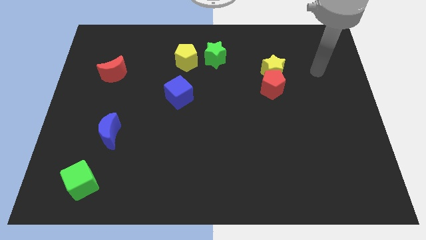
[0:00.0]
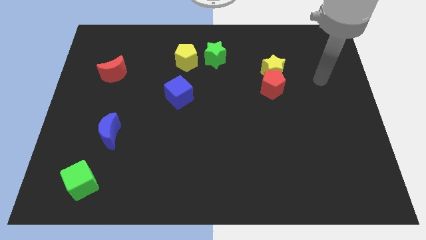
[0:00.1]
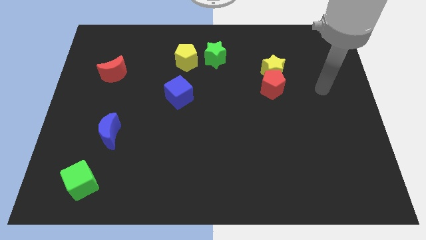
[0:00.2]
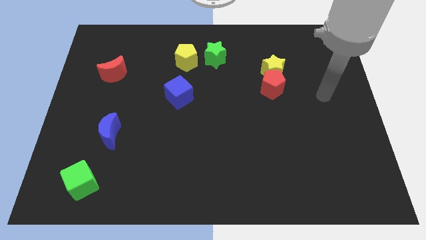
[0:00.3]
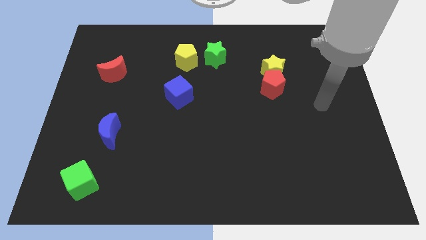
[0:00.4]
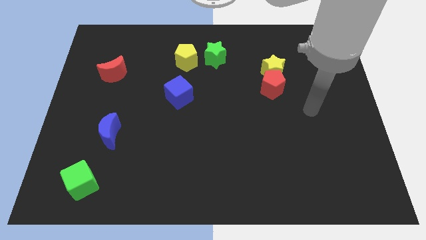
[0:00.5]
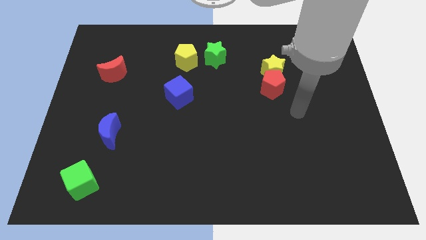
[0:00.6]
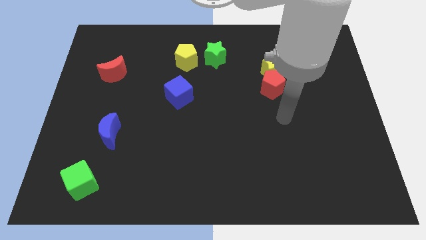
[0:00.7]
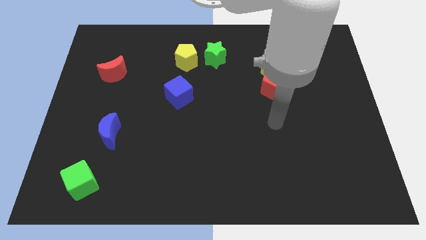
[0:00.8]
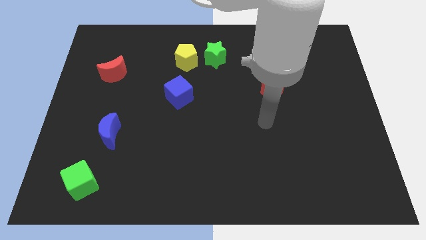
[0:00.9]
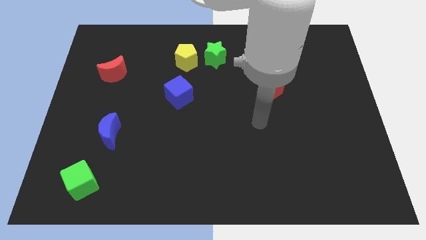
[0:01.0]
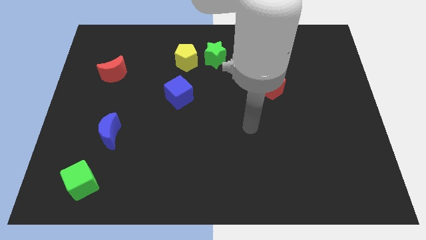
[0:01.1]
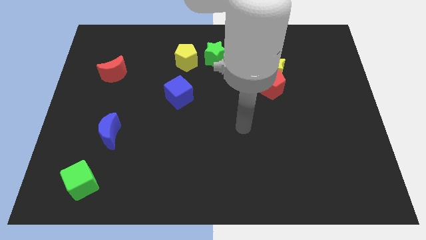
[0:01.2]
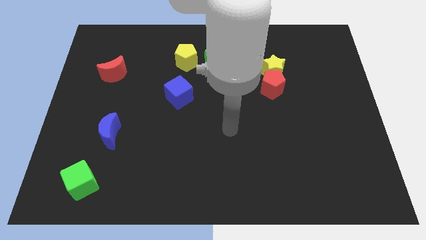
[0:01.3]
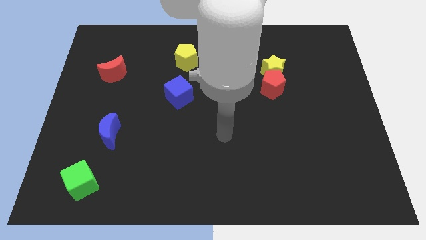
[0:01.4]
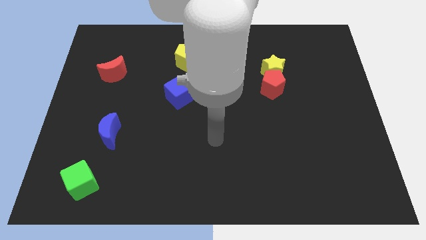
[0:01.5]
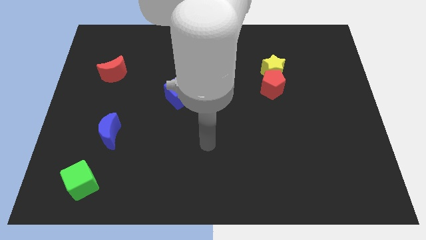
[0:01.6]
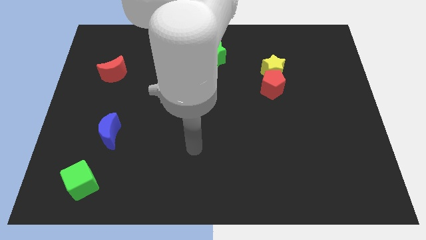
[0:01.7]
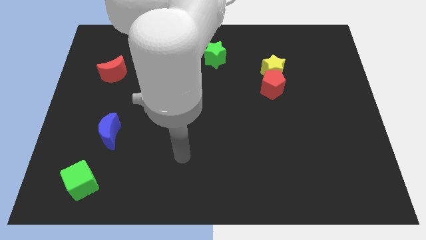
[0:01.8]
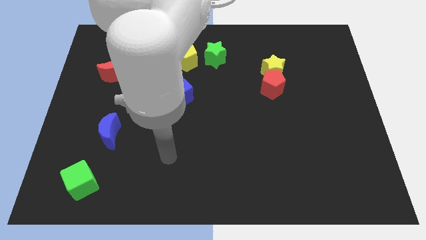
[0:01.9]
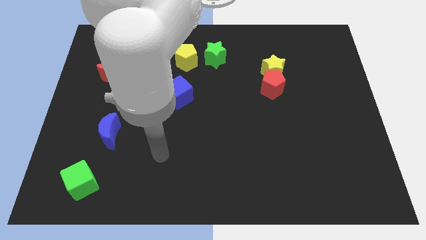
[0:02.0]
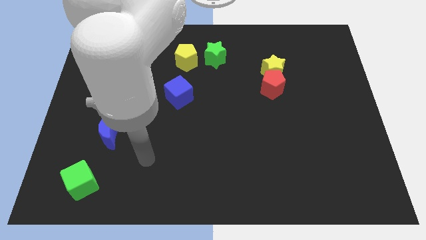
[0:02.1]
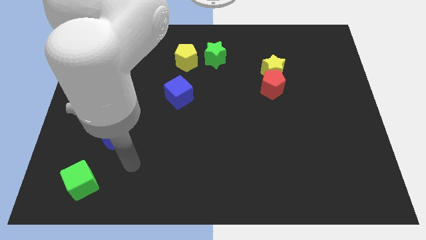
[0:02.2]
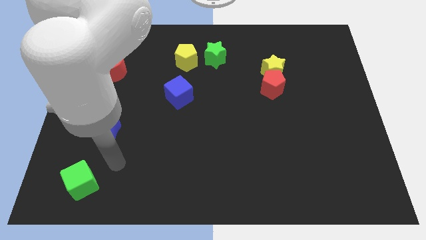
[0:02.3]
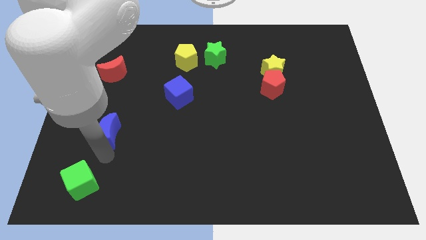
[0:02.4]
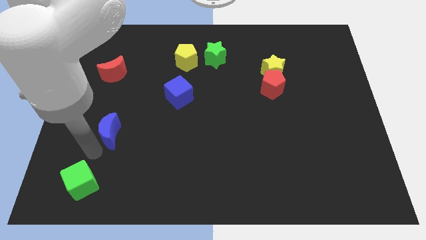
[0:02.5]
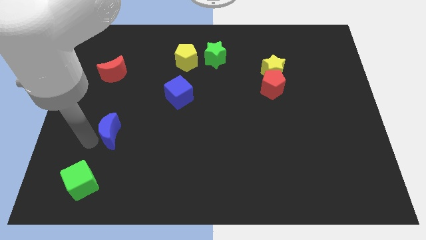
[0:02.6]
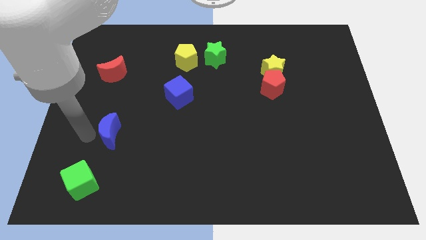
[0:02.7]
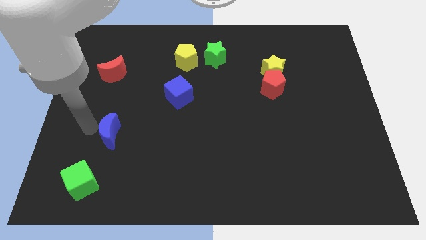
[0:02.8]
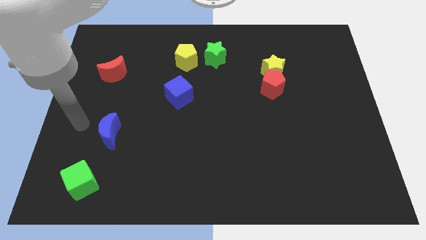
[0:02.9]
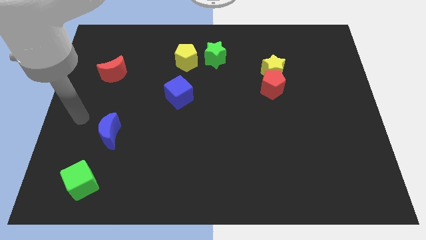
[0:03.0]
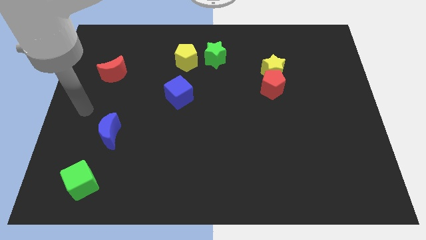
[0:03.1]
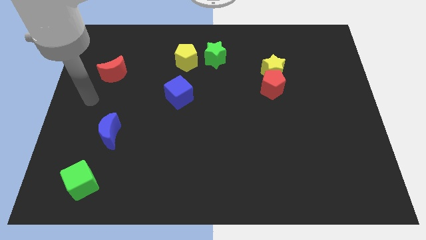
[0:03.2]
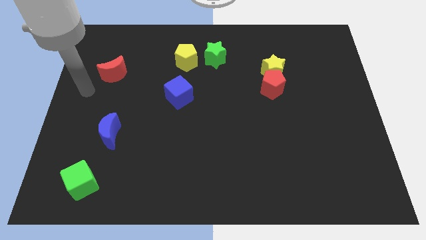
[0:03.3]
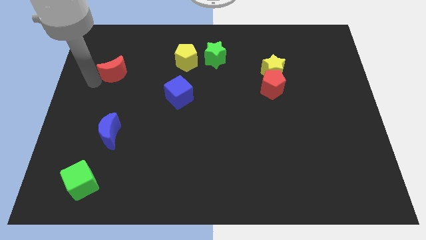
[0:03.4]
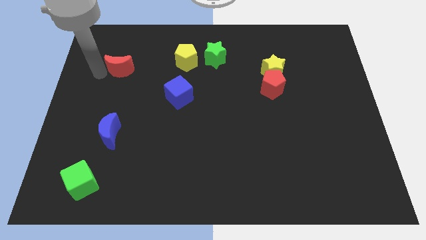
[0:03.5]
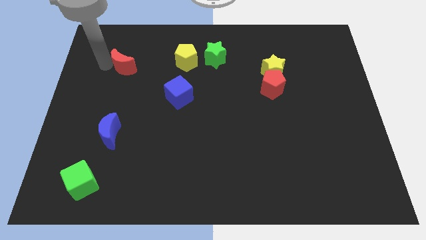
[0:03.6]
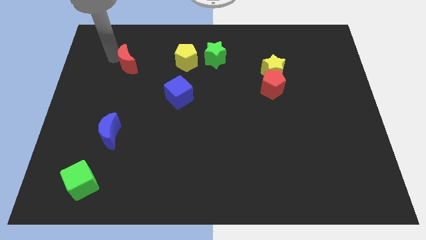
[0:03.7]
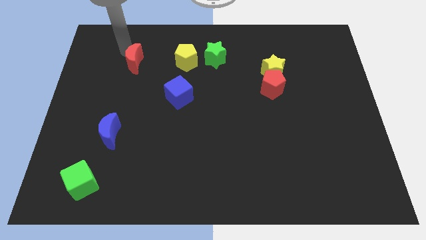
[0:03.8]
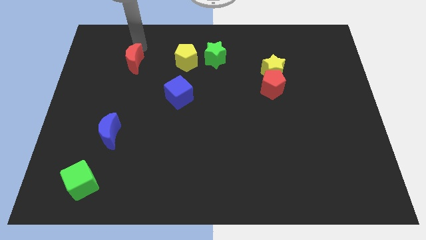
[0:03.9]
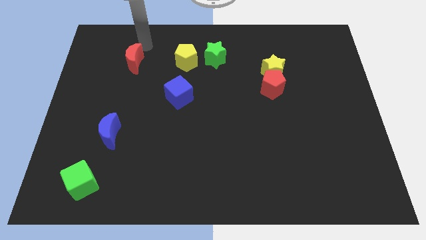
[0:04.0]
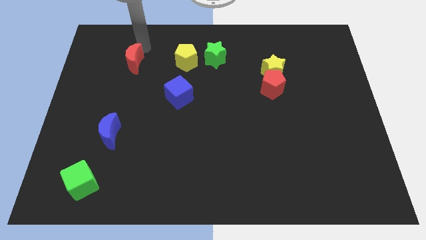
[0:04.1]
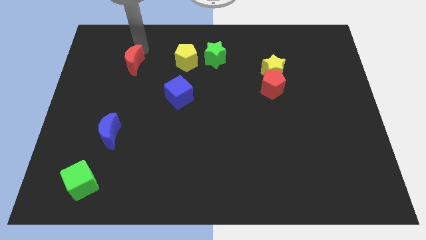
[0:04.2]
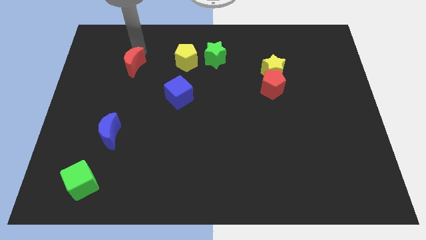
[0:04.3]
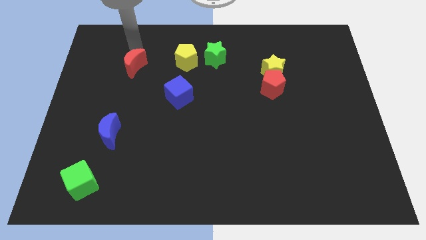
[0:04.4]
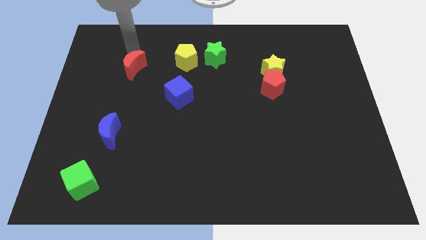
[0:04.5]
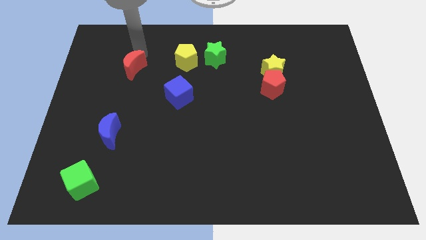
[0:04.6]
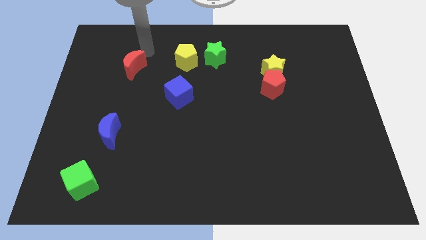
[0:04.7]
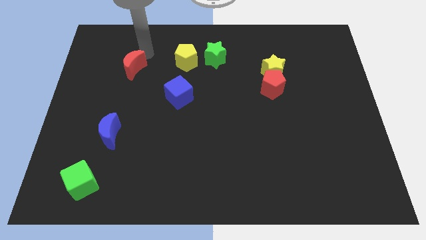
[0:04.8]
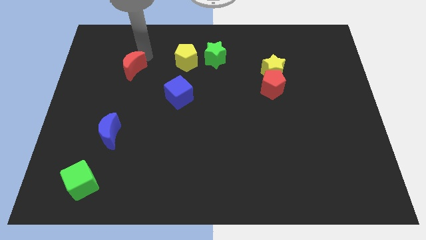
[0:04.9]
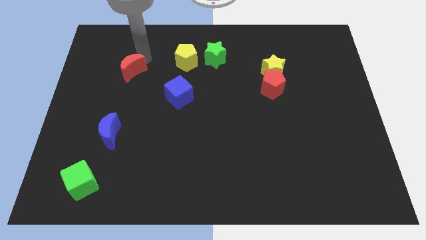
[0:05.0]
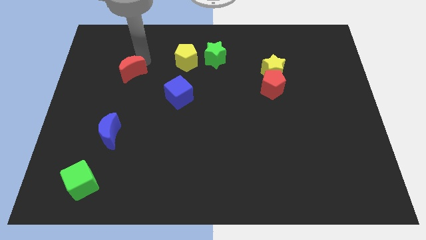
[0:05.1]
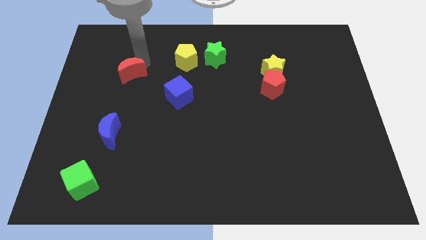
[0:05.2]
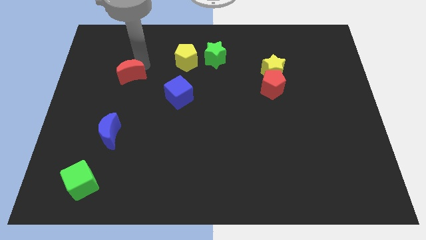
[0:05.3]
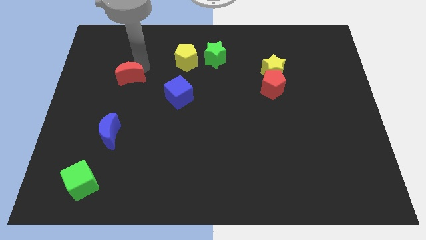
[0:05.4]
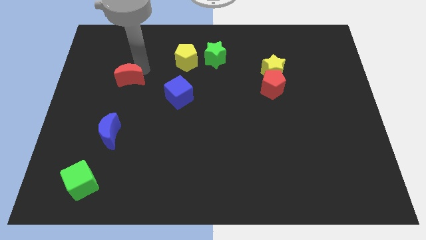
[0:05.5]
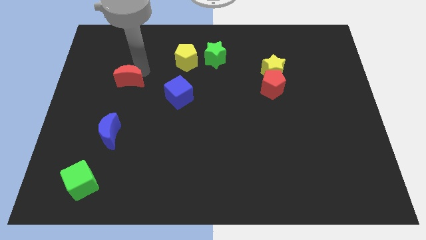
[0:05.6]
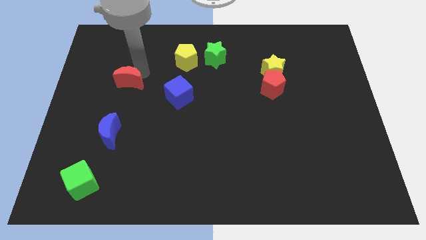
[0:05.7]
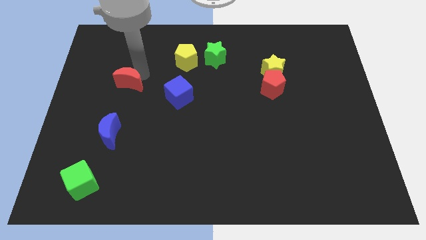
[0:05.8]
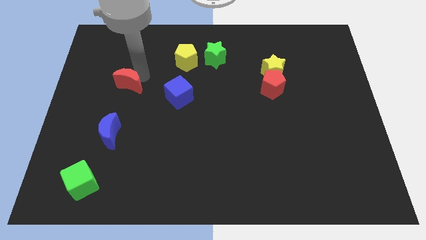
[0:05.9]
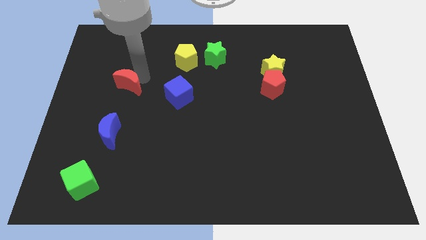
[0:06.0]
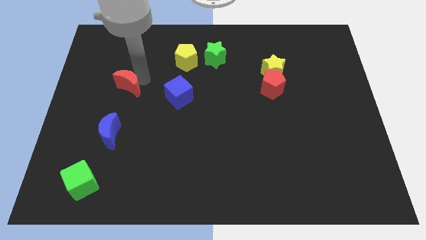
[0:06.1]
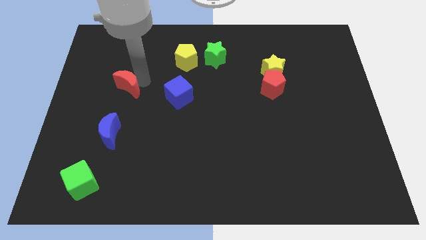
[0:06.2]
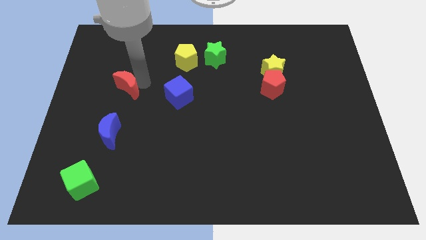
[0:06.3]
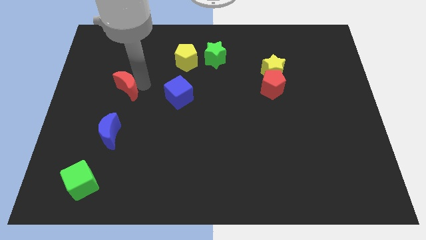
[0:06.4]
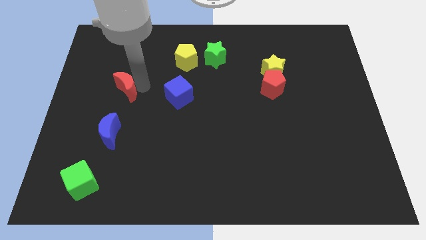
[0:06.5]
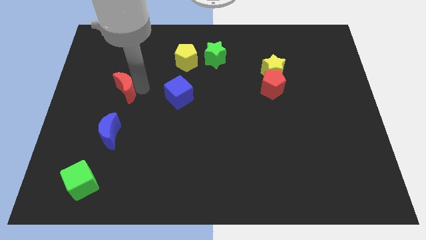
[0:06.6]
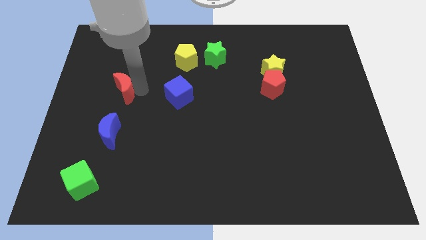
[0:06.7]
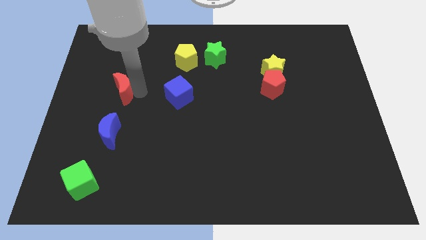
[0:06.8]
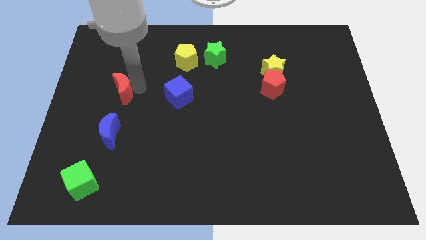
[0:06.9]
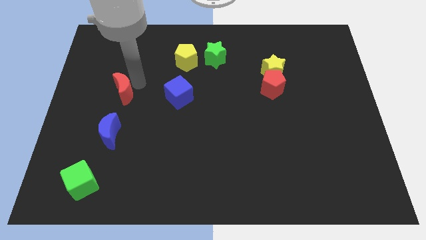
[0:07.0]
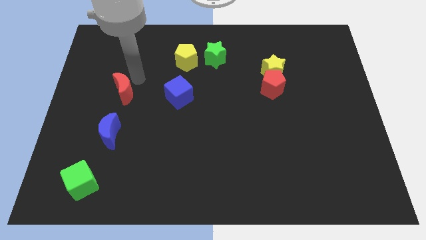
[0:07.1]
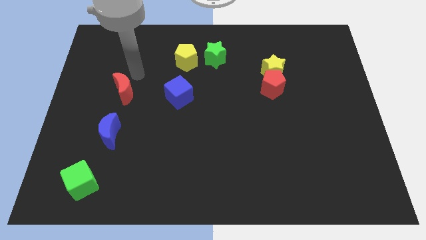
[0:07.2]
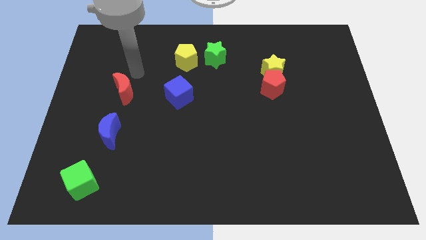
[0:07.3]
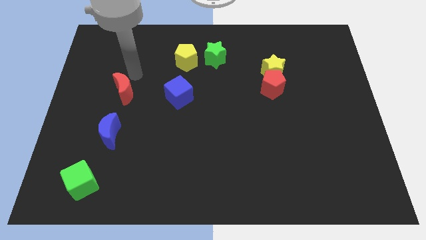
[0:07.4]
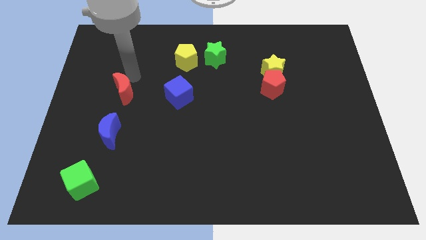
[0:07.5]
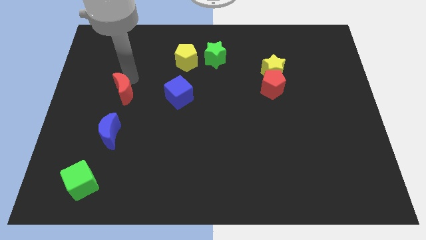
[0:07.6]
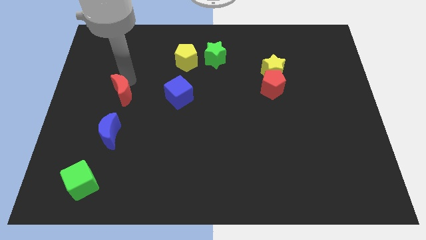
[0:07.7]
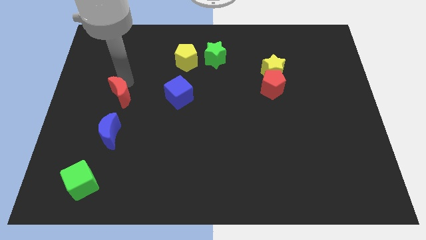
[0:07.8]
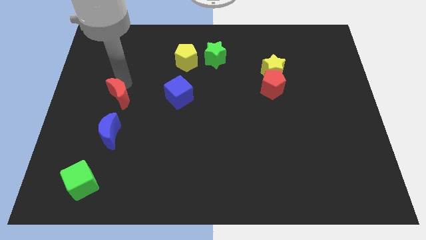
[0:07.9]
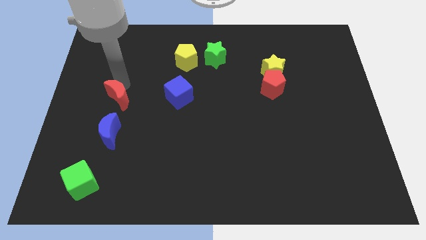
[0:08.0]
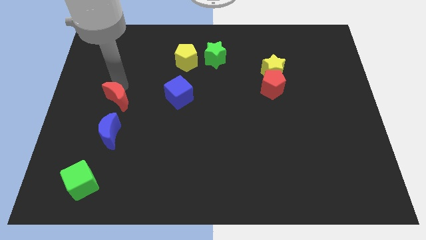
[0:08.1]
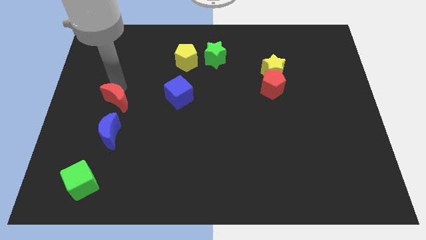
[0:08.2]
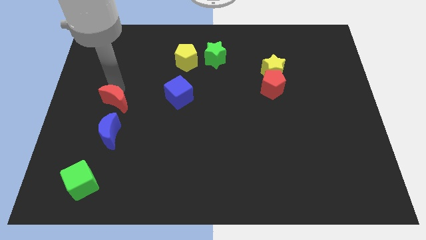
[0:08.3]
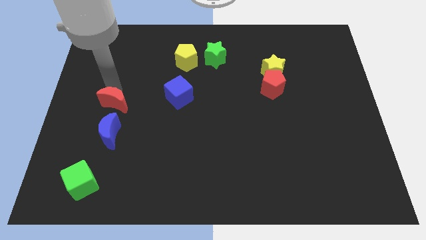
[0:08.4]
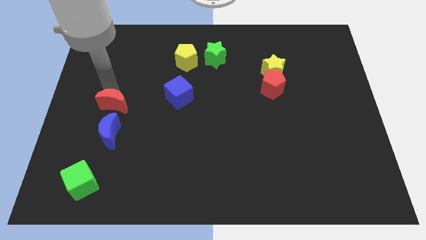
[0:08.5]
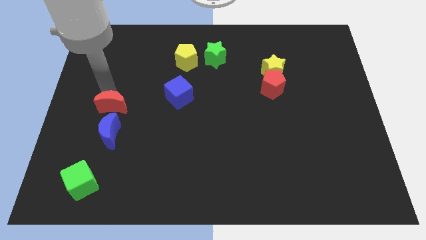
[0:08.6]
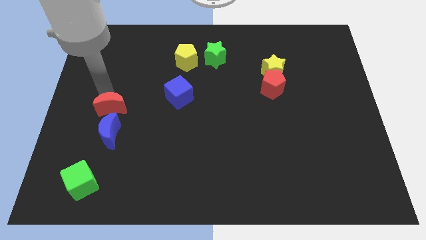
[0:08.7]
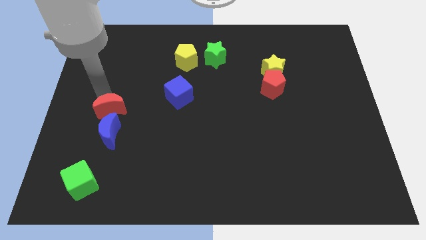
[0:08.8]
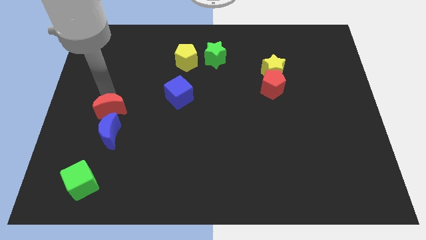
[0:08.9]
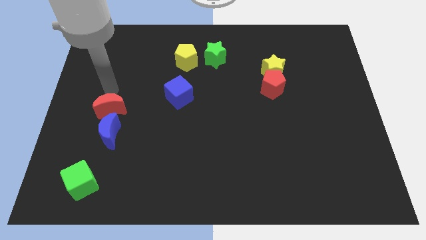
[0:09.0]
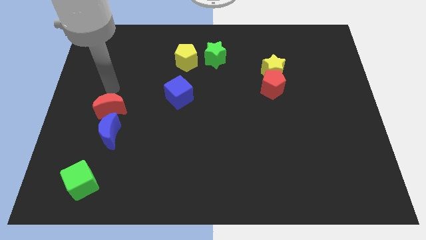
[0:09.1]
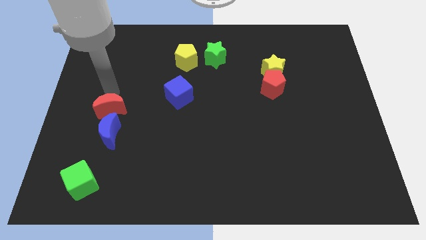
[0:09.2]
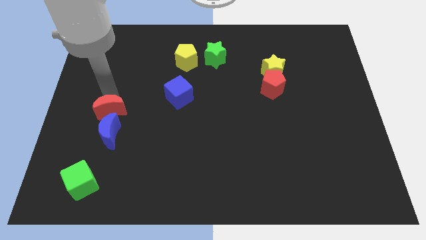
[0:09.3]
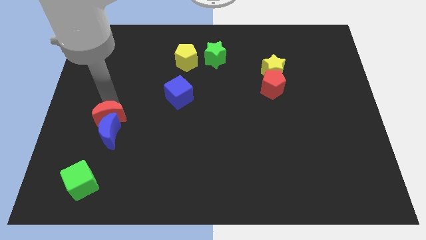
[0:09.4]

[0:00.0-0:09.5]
push the red moon close to the blue moon
